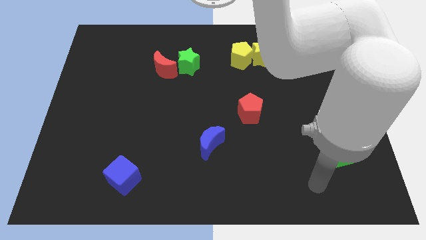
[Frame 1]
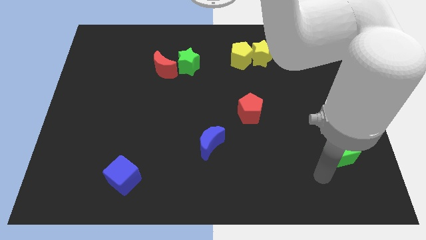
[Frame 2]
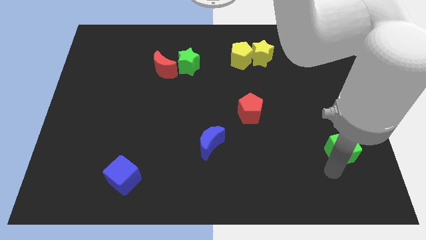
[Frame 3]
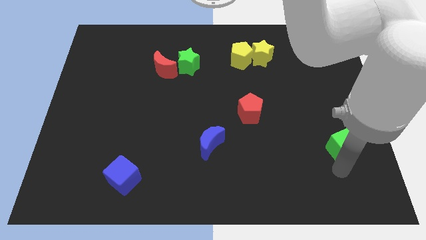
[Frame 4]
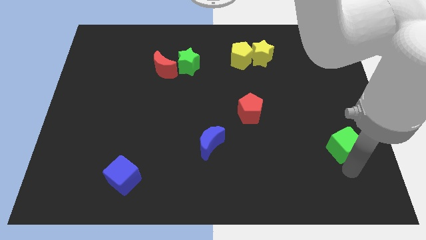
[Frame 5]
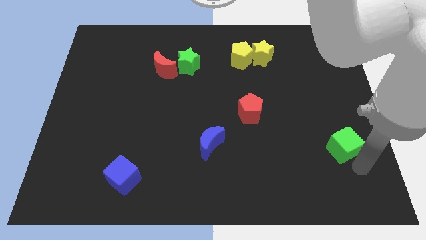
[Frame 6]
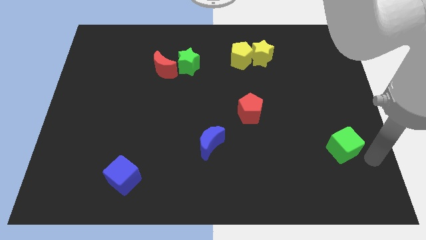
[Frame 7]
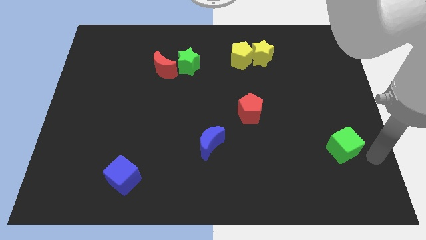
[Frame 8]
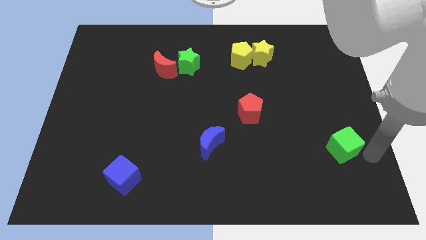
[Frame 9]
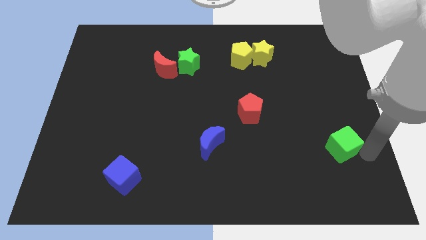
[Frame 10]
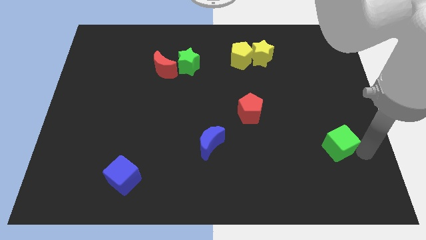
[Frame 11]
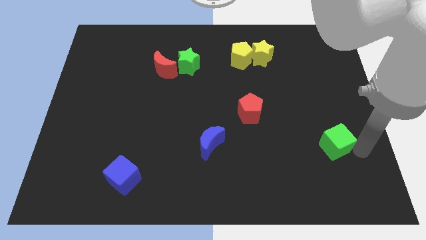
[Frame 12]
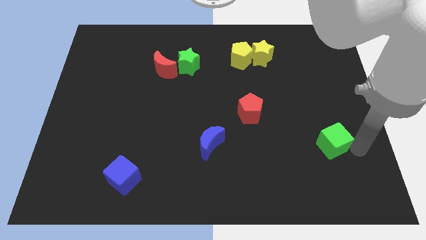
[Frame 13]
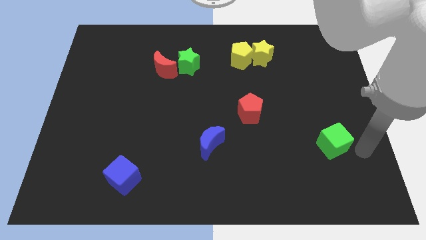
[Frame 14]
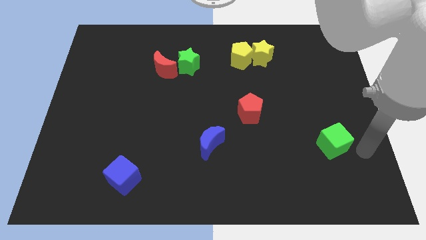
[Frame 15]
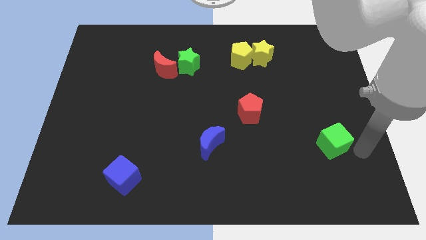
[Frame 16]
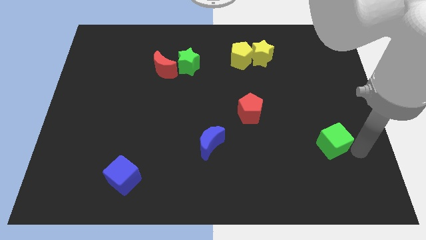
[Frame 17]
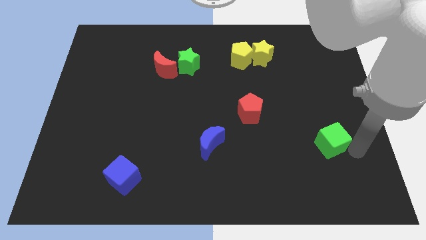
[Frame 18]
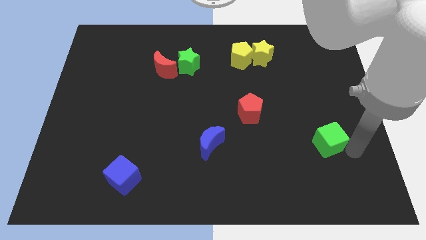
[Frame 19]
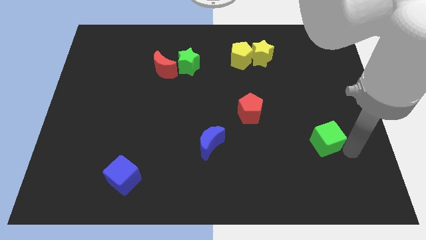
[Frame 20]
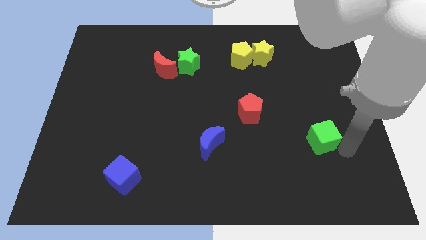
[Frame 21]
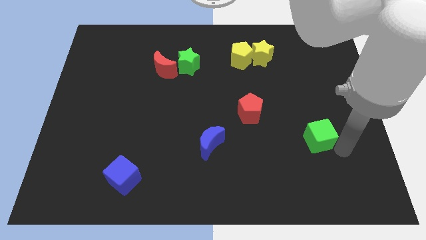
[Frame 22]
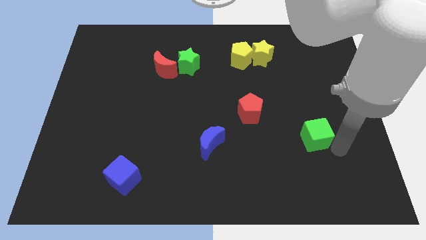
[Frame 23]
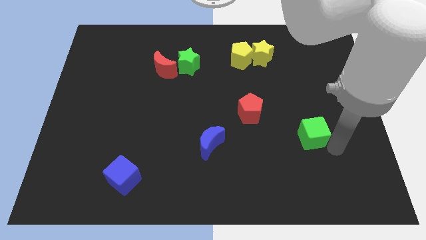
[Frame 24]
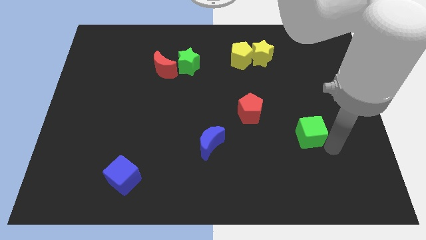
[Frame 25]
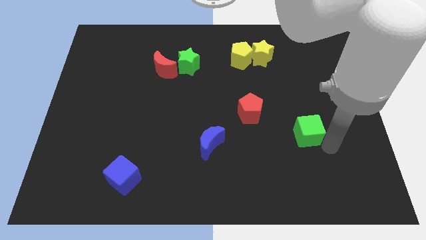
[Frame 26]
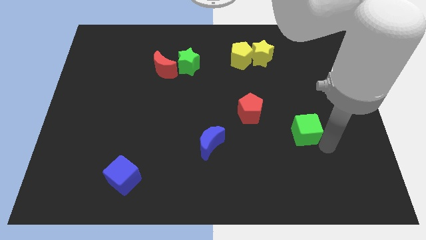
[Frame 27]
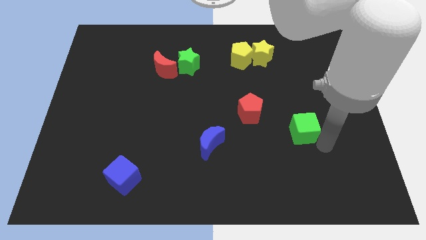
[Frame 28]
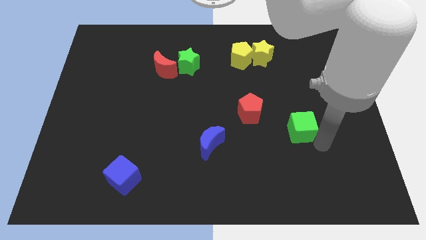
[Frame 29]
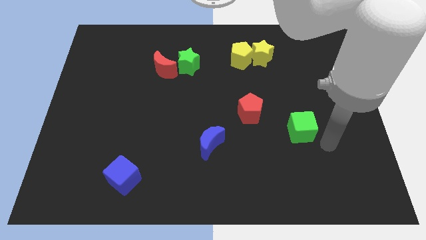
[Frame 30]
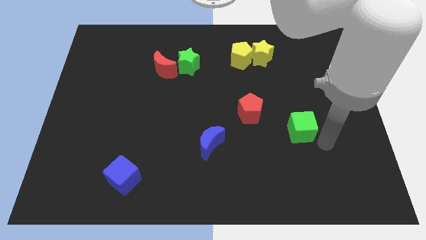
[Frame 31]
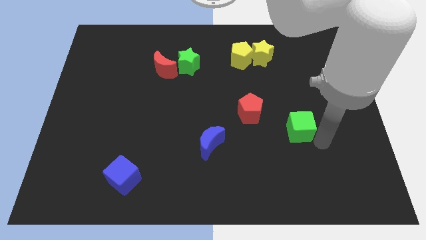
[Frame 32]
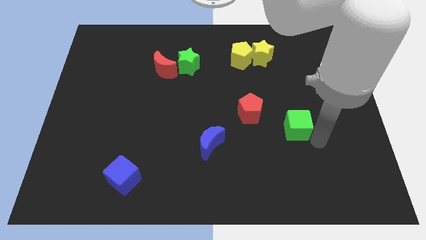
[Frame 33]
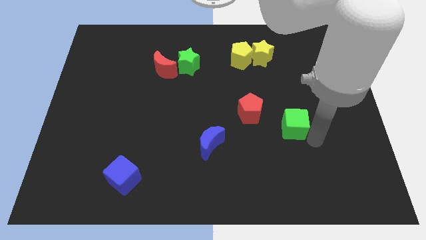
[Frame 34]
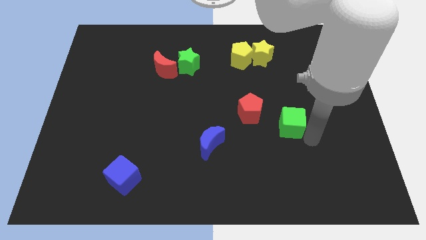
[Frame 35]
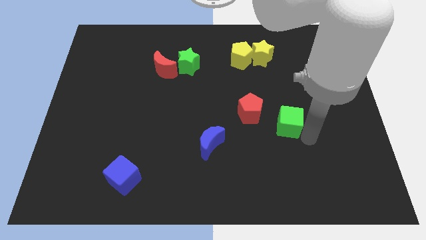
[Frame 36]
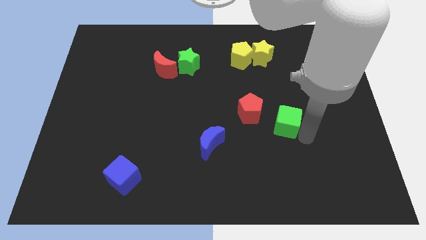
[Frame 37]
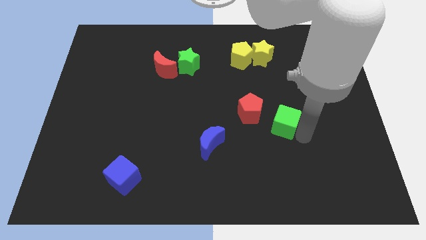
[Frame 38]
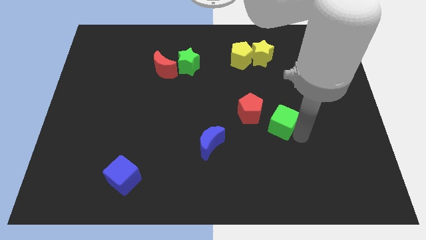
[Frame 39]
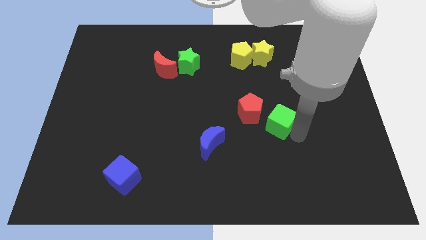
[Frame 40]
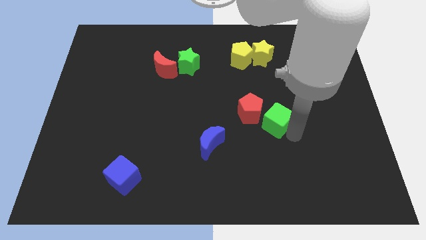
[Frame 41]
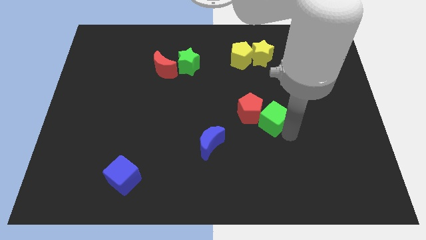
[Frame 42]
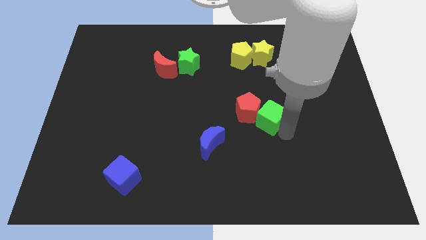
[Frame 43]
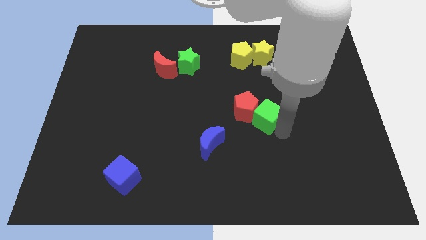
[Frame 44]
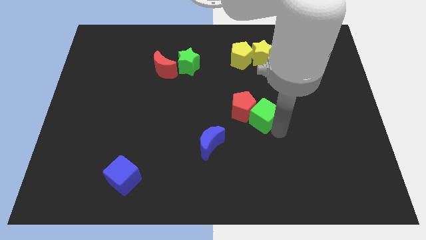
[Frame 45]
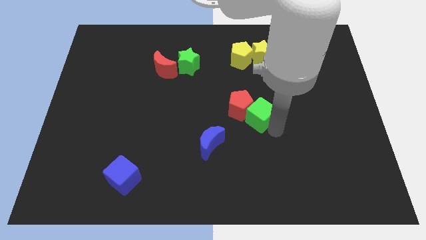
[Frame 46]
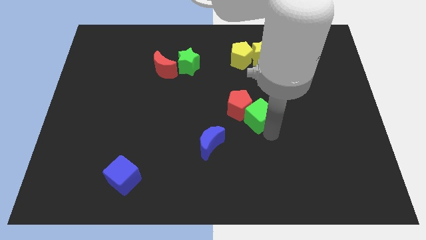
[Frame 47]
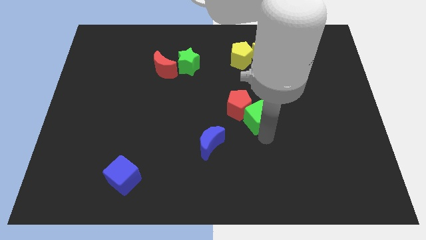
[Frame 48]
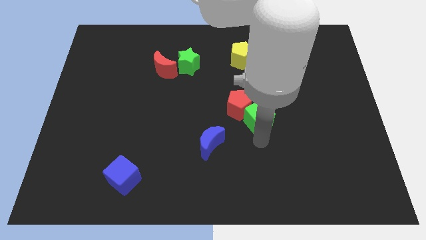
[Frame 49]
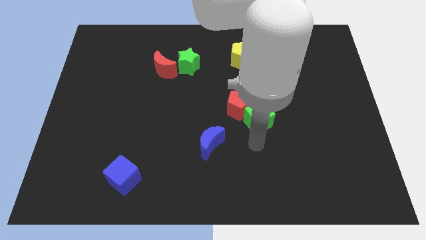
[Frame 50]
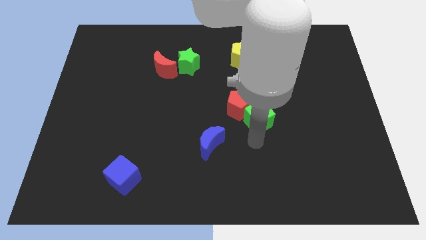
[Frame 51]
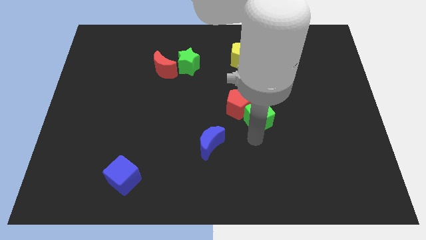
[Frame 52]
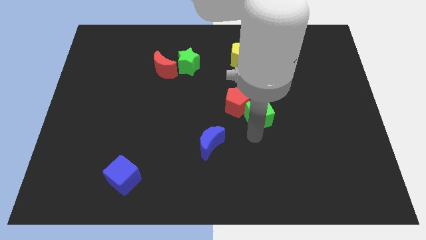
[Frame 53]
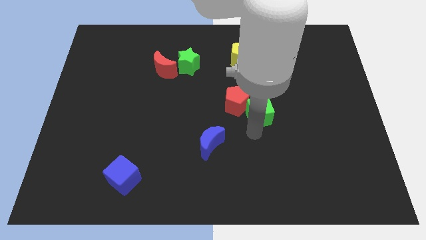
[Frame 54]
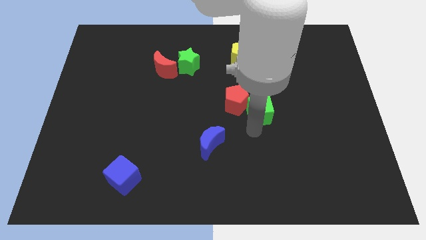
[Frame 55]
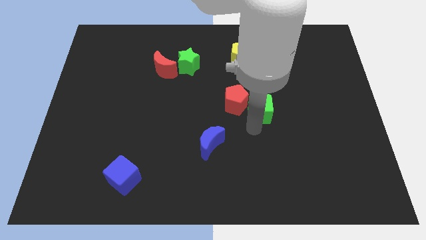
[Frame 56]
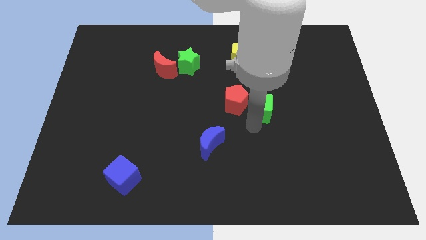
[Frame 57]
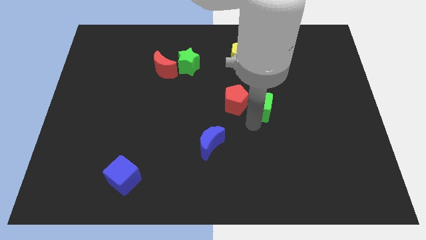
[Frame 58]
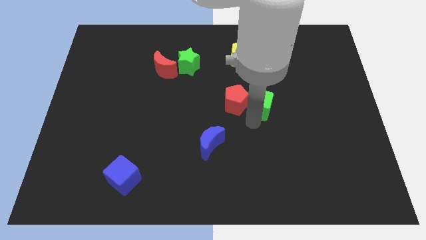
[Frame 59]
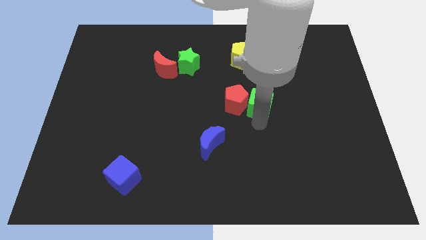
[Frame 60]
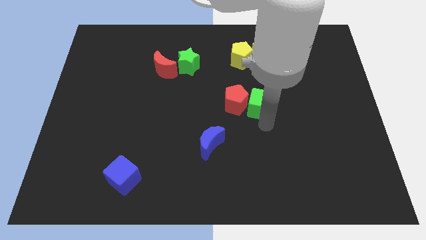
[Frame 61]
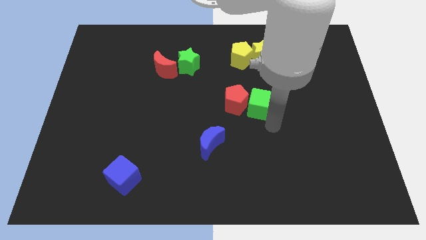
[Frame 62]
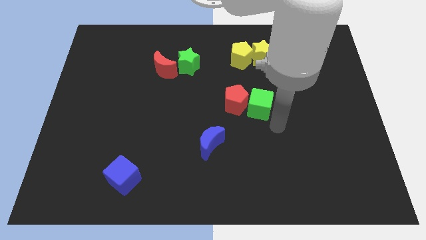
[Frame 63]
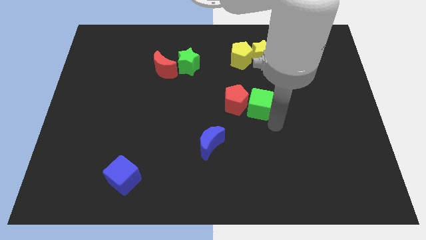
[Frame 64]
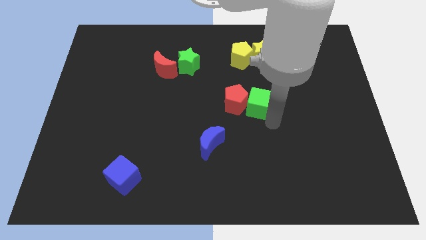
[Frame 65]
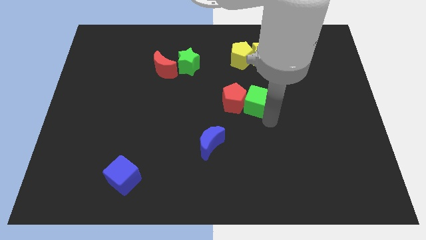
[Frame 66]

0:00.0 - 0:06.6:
put the green cube to the bottom side of the yellow pentagon

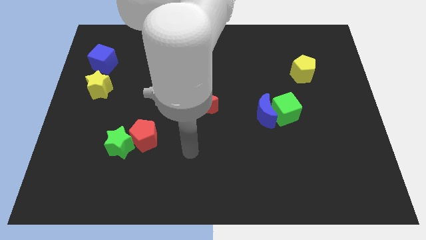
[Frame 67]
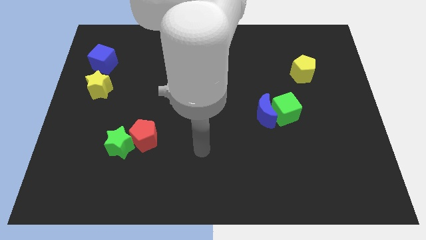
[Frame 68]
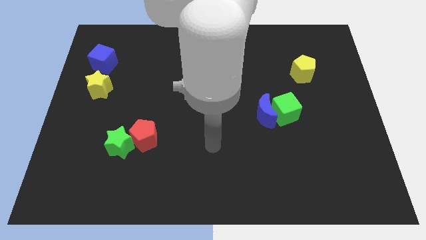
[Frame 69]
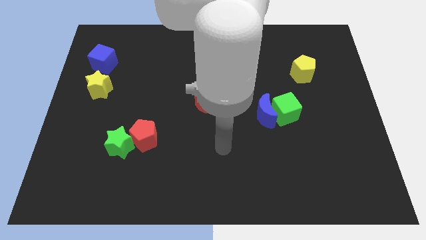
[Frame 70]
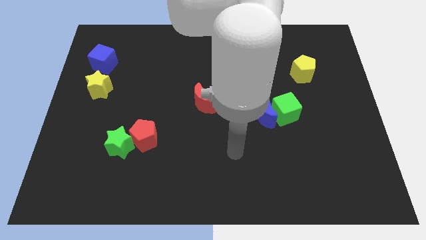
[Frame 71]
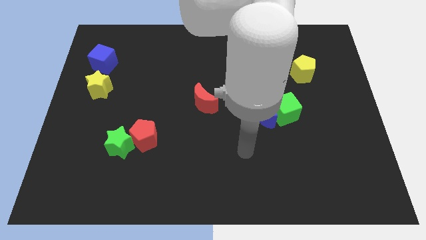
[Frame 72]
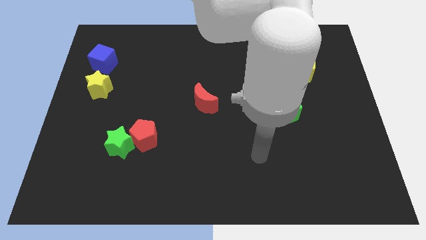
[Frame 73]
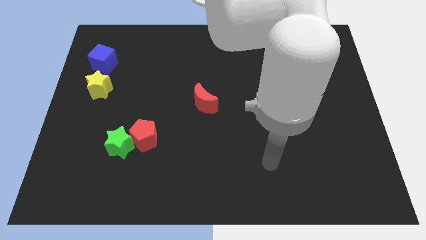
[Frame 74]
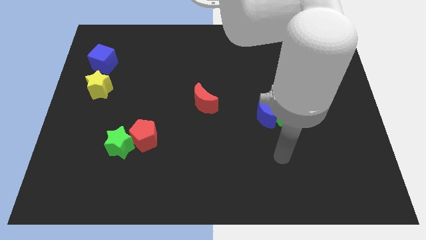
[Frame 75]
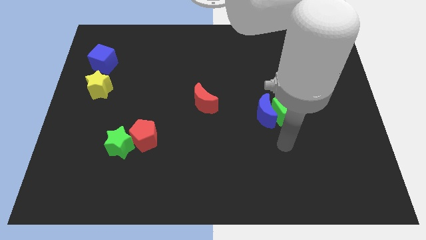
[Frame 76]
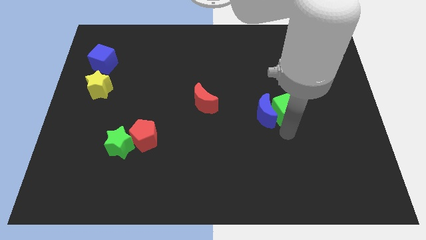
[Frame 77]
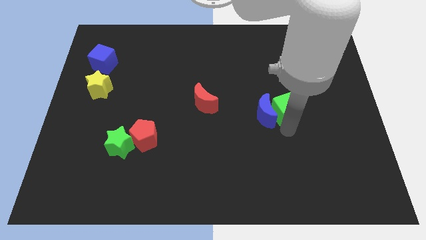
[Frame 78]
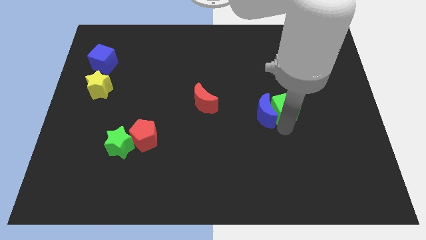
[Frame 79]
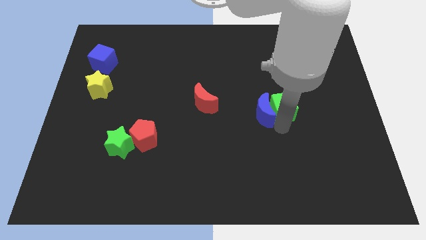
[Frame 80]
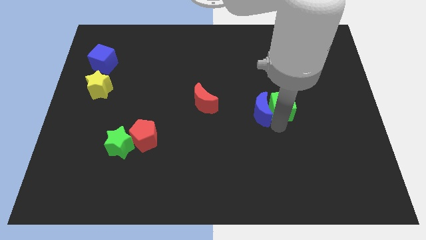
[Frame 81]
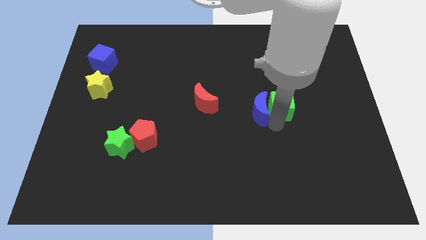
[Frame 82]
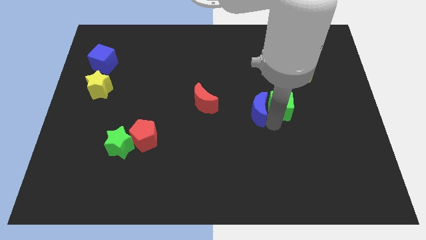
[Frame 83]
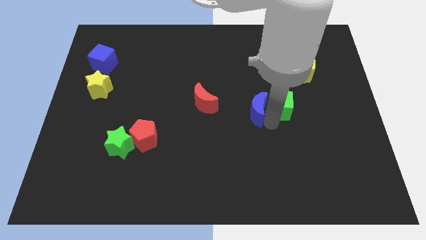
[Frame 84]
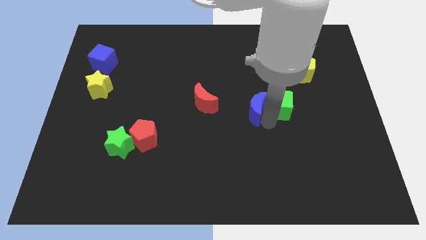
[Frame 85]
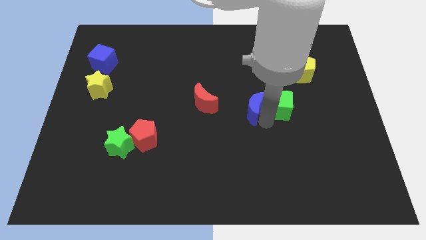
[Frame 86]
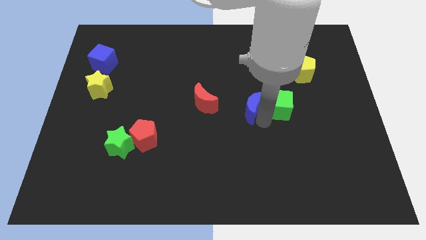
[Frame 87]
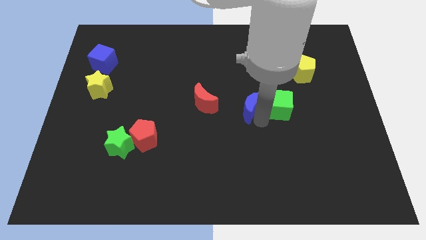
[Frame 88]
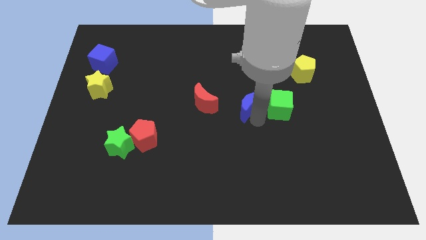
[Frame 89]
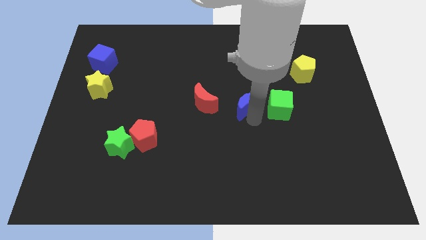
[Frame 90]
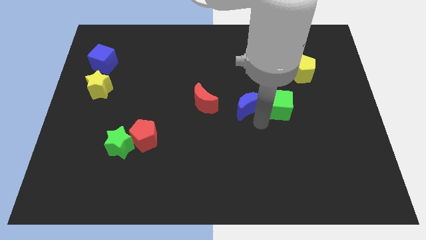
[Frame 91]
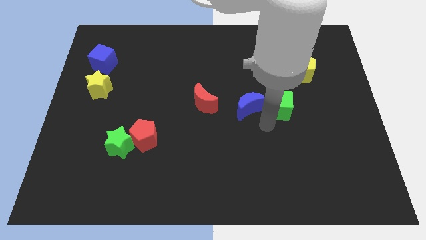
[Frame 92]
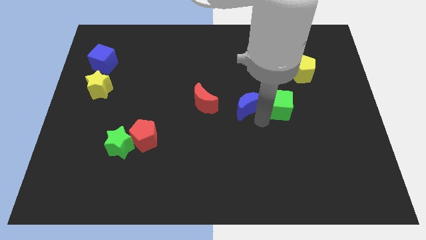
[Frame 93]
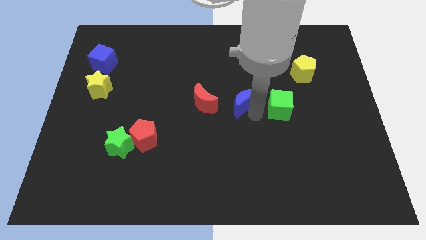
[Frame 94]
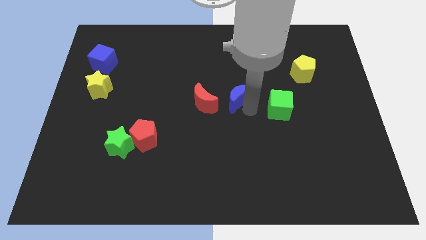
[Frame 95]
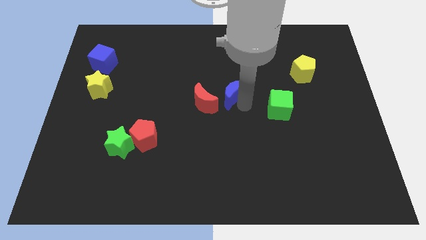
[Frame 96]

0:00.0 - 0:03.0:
move the blue moon to the top right side of the red moon
